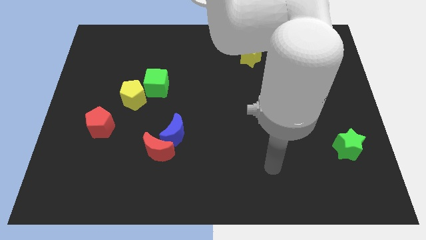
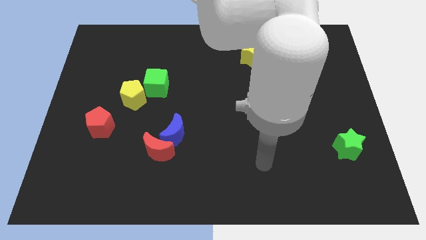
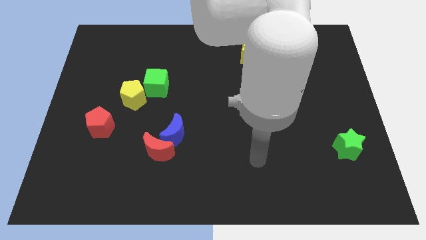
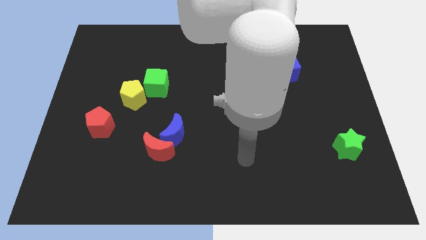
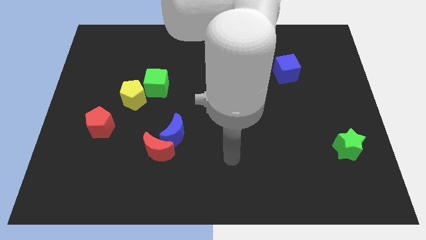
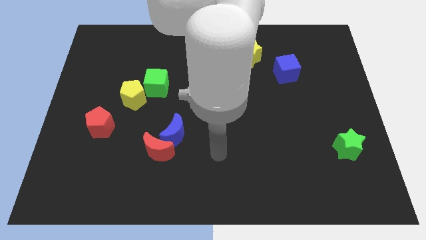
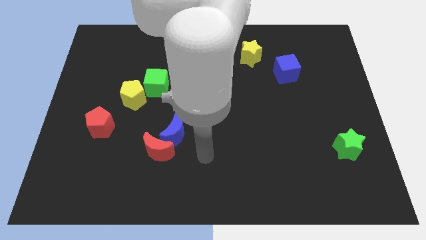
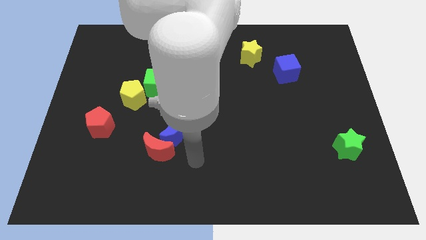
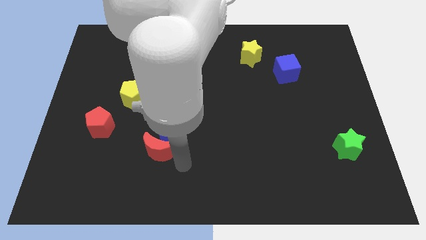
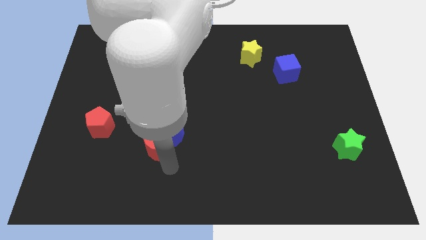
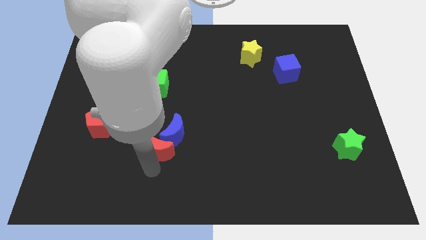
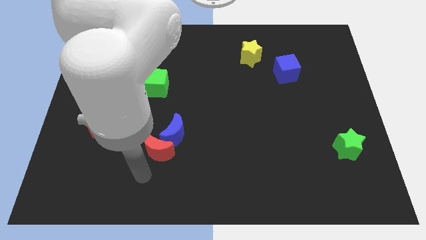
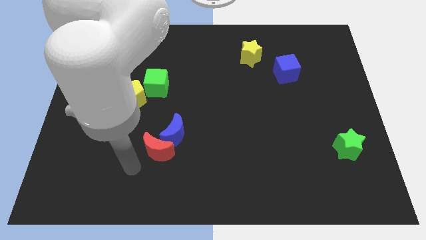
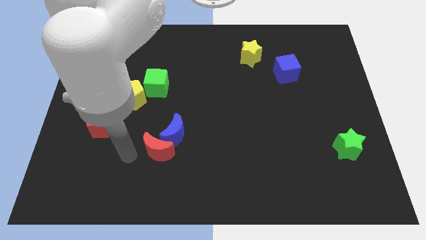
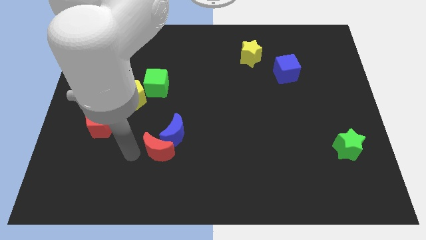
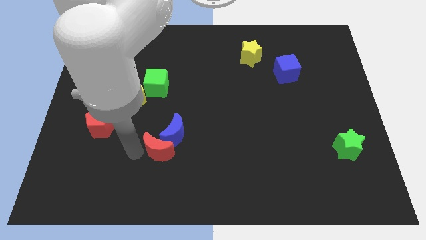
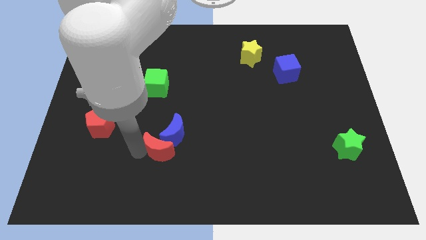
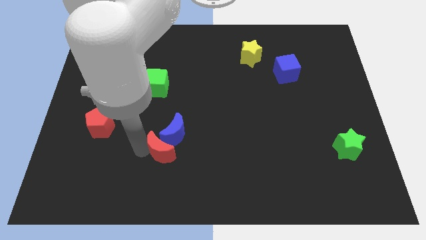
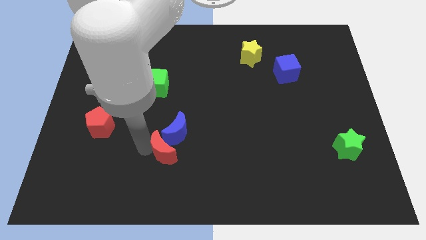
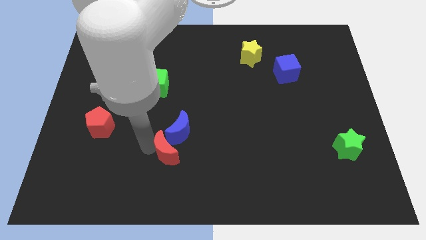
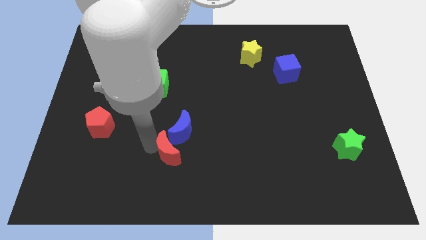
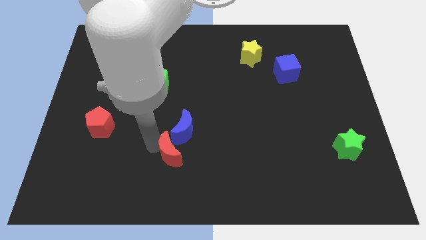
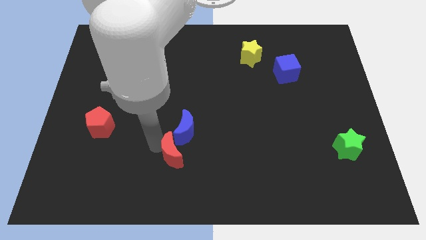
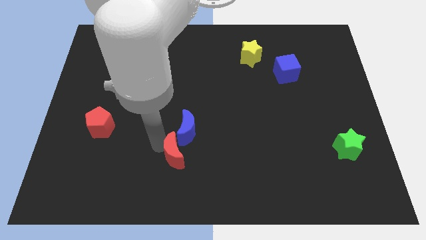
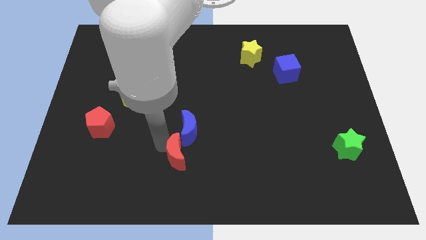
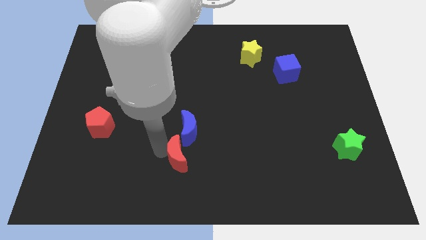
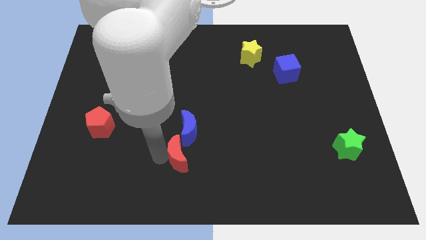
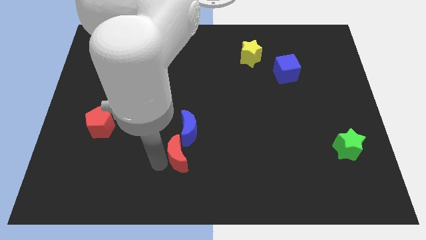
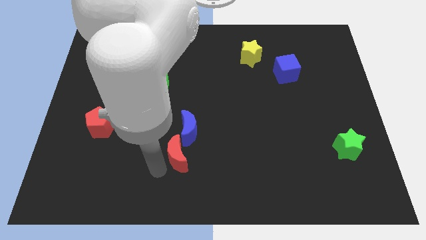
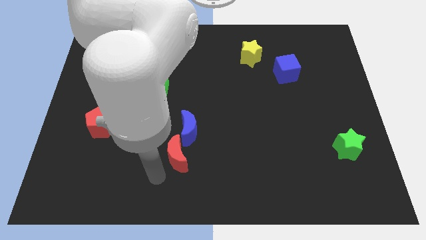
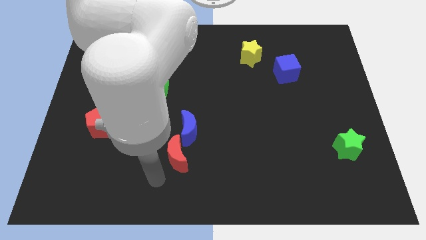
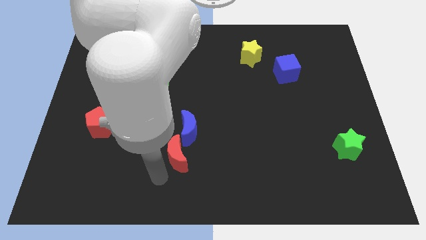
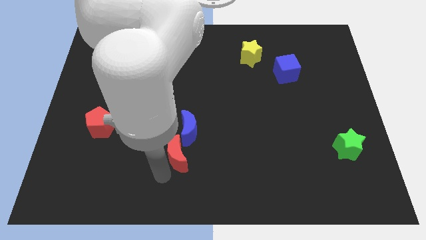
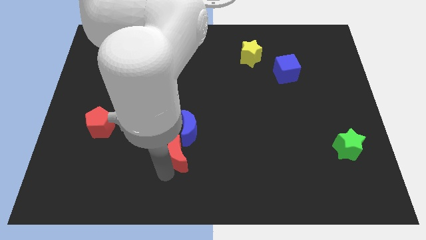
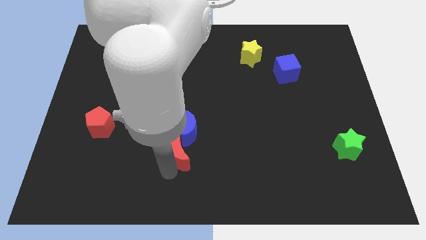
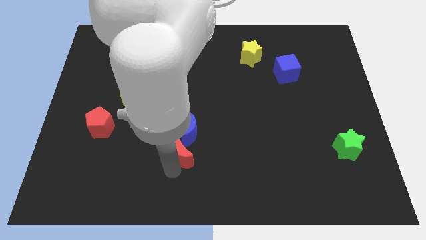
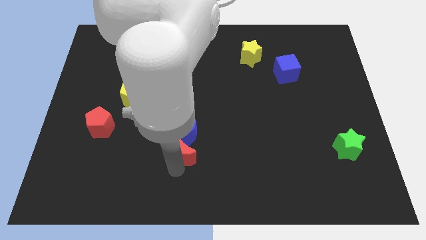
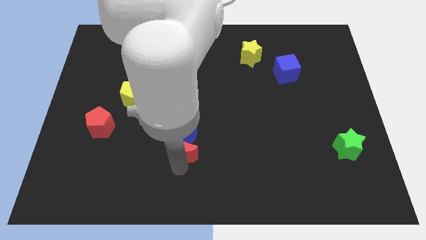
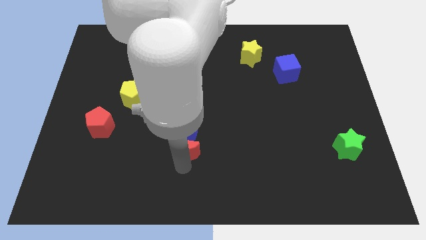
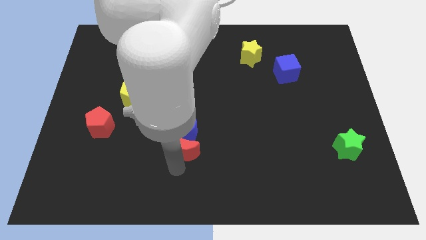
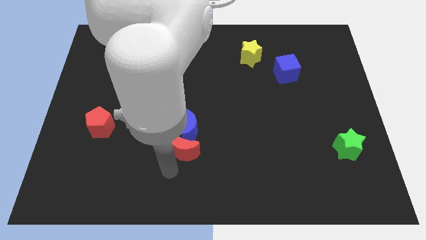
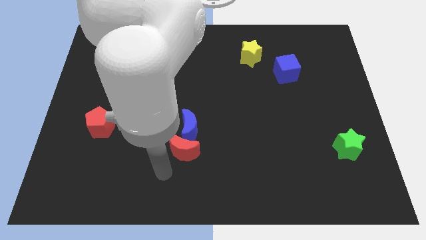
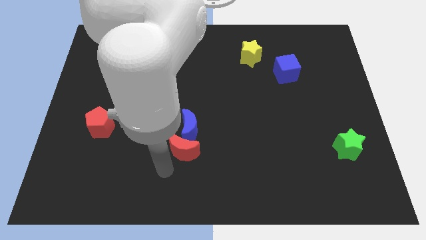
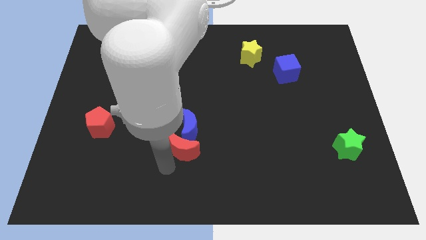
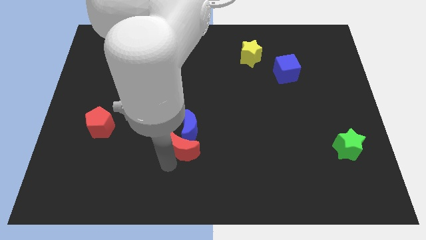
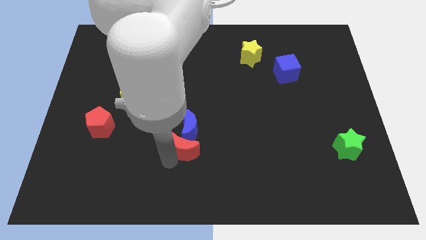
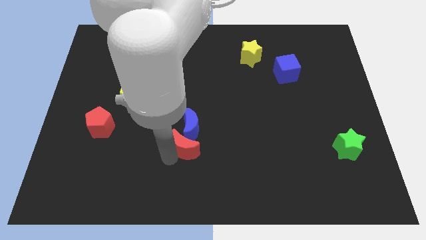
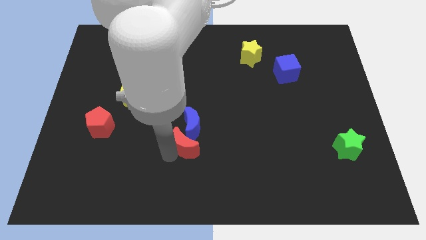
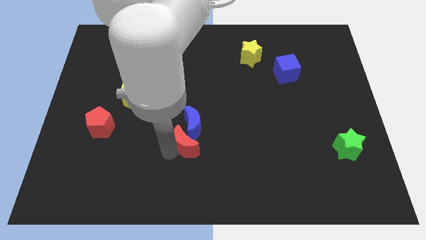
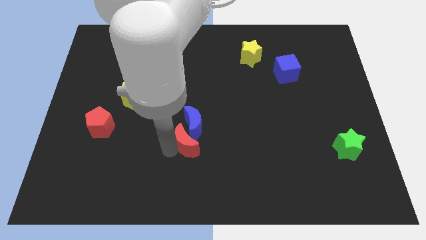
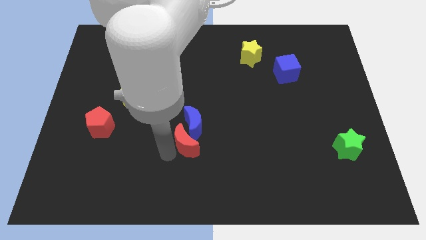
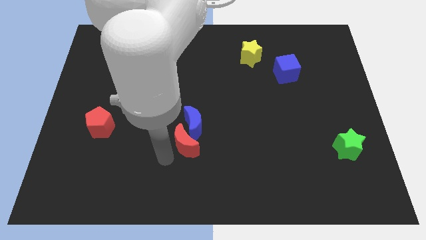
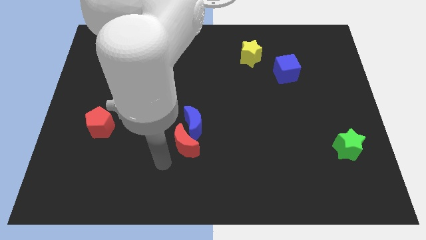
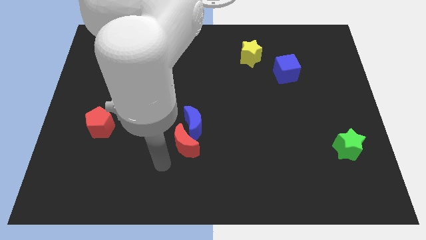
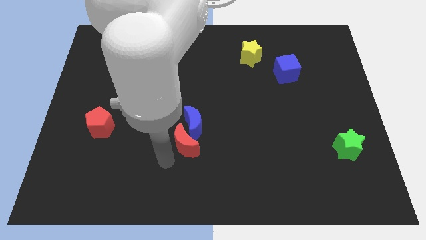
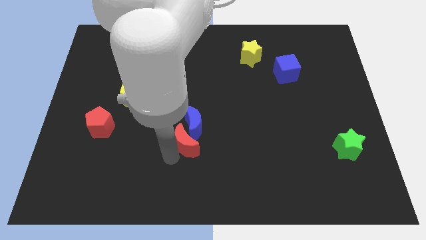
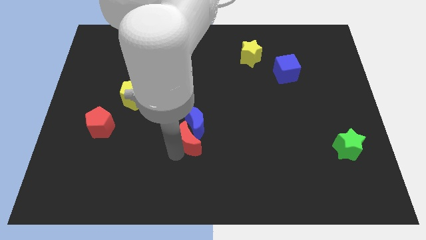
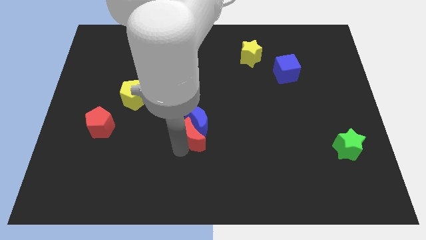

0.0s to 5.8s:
move the red moon to the center
